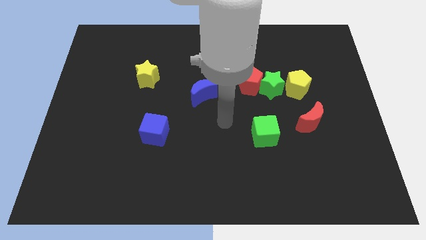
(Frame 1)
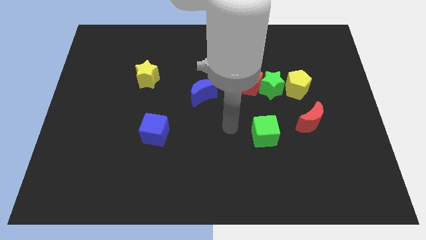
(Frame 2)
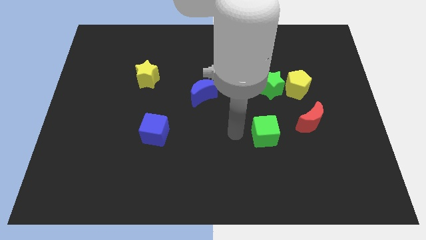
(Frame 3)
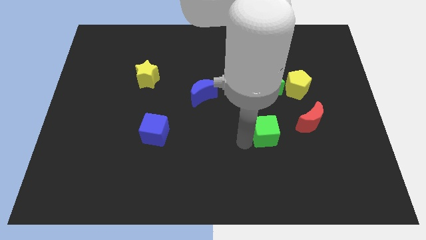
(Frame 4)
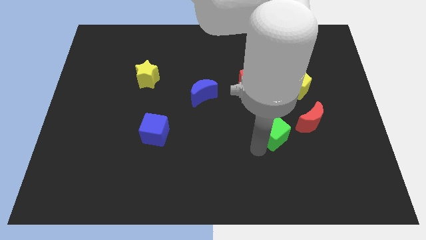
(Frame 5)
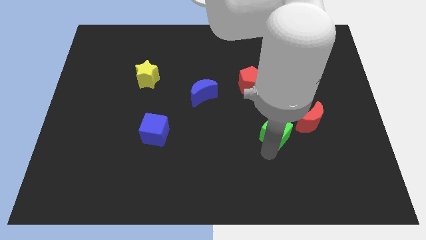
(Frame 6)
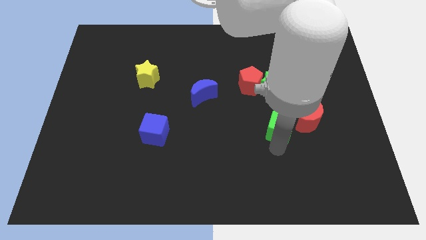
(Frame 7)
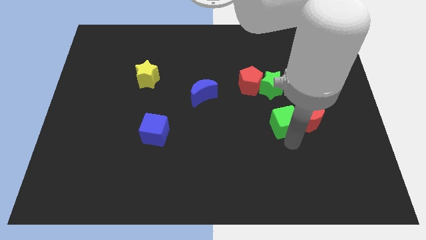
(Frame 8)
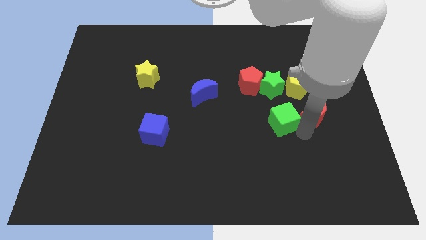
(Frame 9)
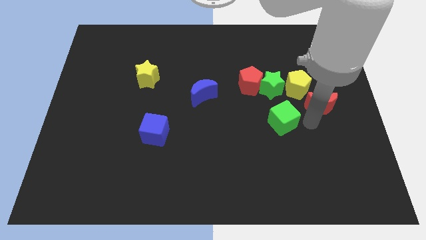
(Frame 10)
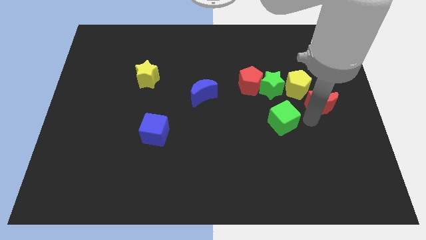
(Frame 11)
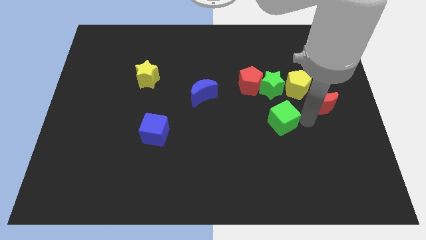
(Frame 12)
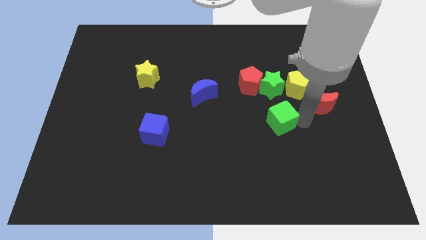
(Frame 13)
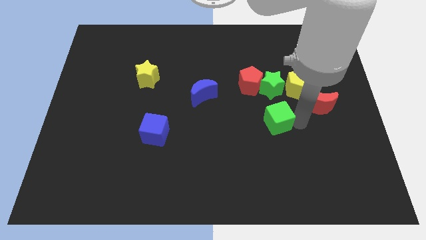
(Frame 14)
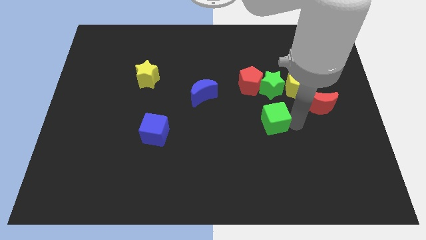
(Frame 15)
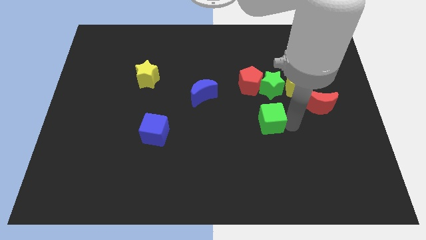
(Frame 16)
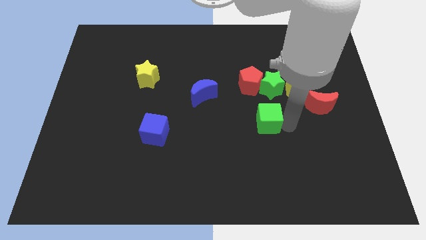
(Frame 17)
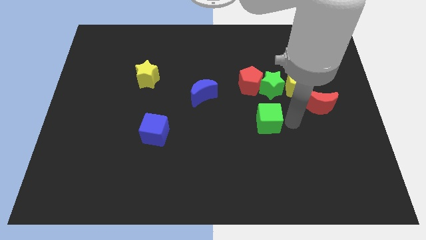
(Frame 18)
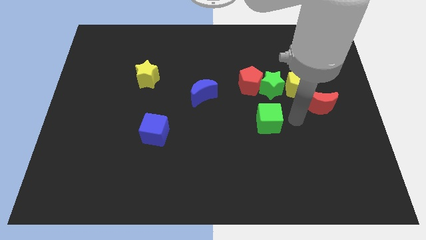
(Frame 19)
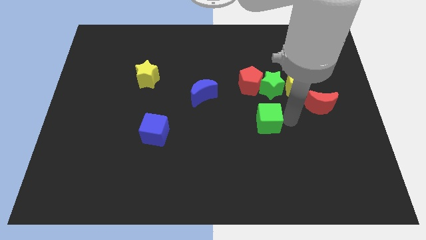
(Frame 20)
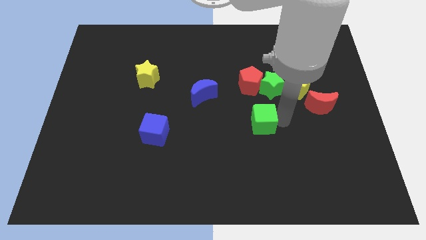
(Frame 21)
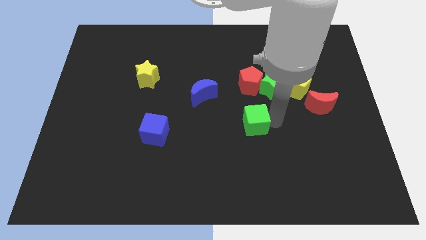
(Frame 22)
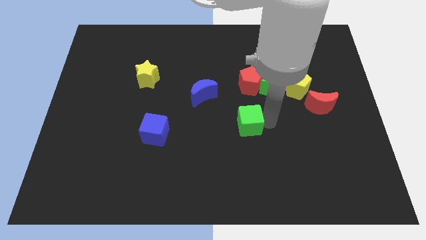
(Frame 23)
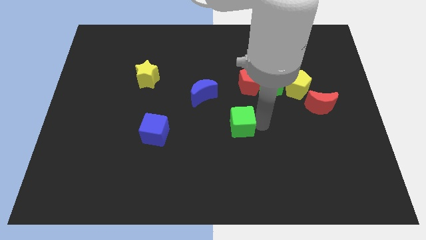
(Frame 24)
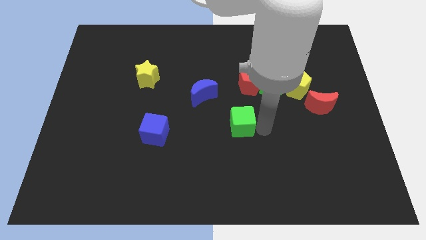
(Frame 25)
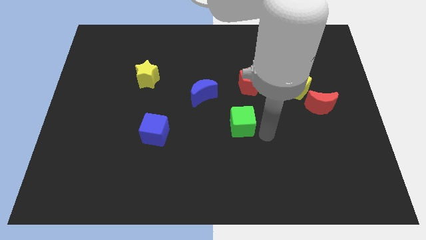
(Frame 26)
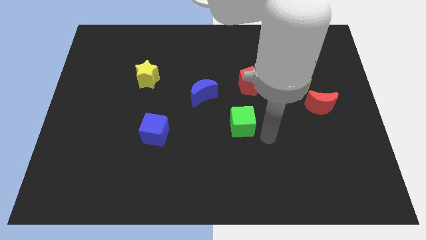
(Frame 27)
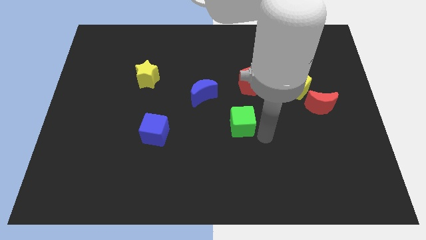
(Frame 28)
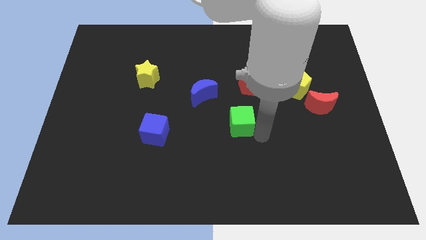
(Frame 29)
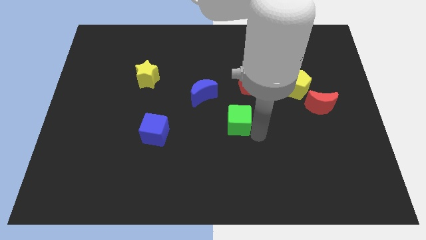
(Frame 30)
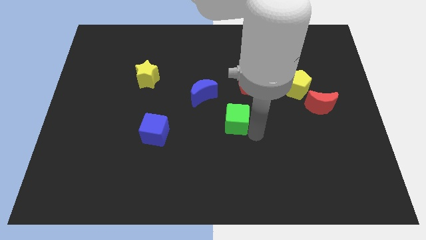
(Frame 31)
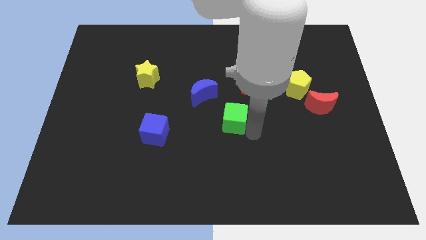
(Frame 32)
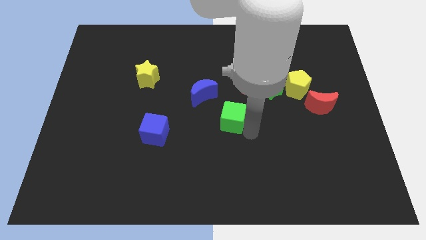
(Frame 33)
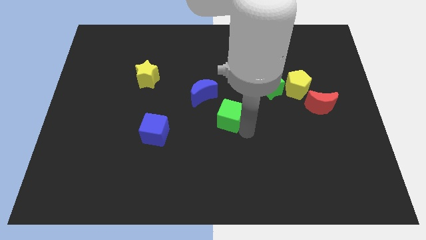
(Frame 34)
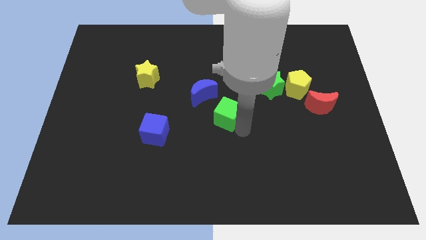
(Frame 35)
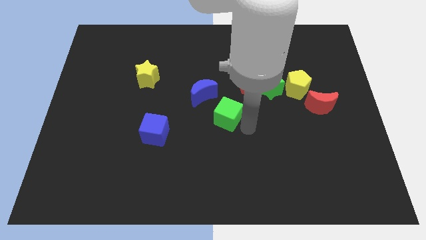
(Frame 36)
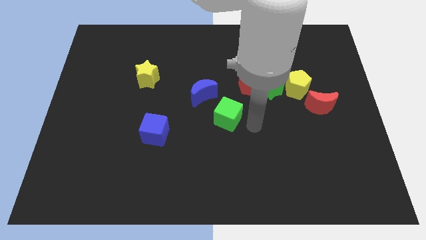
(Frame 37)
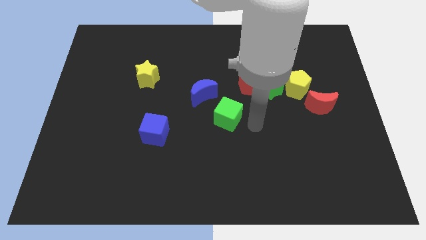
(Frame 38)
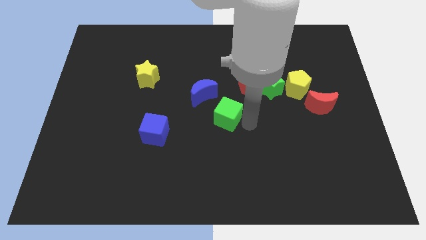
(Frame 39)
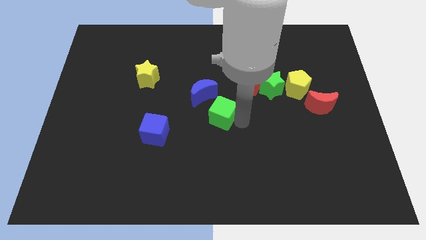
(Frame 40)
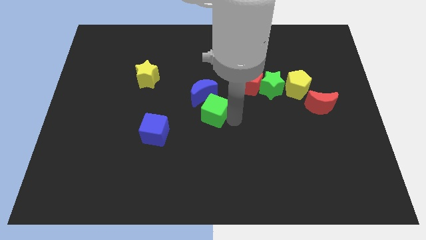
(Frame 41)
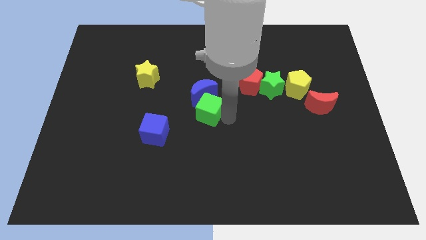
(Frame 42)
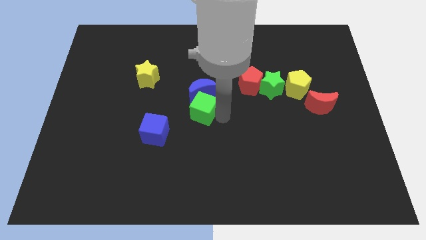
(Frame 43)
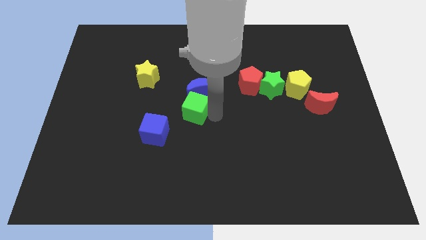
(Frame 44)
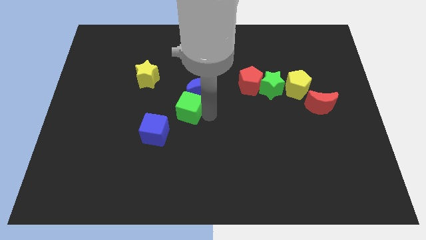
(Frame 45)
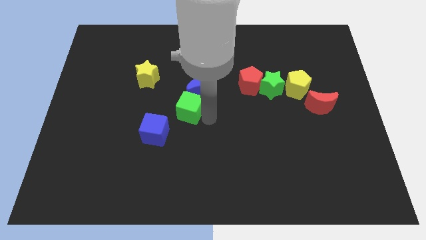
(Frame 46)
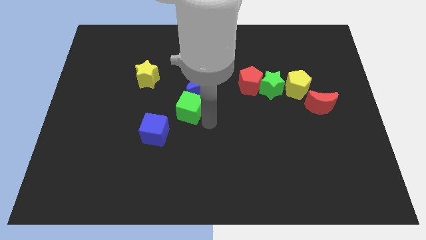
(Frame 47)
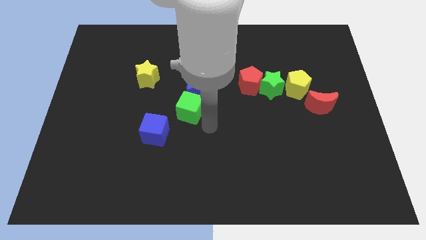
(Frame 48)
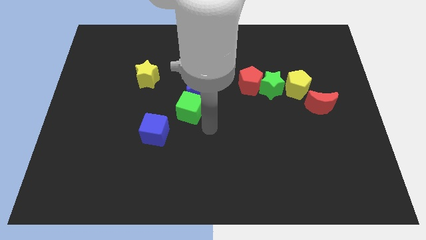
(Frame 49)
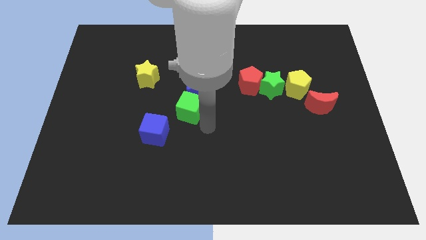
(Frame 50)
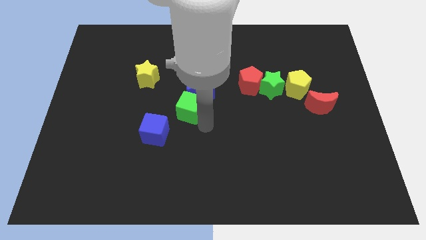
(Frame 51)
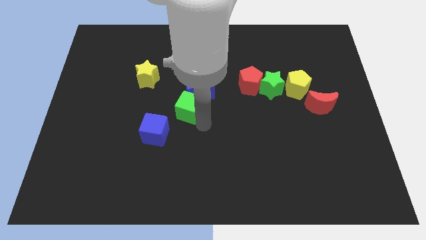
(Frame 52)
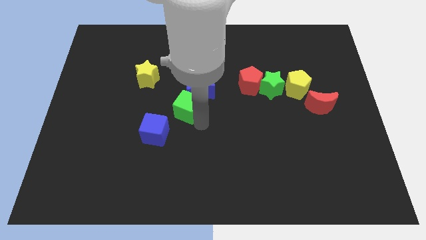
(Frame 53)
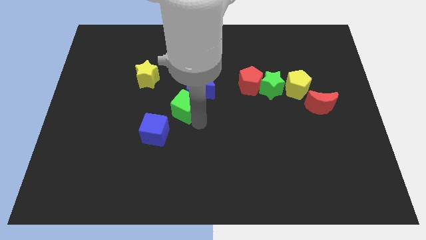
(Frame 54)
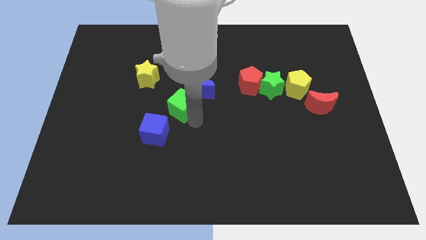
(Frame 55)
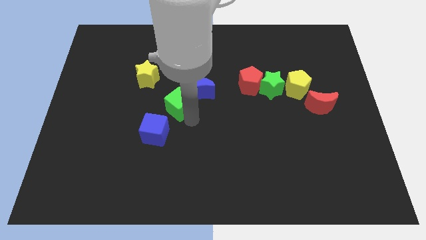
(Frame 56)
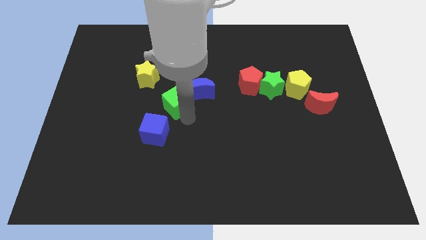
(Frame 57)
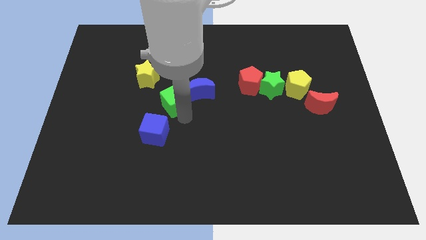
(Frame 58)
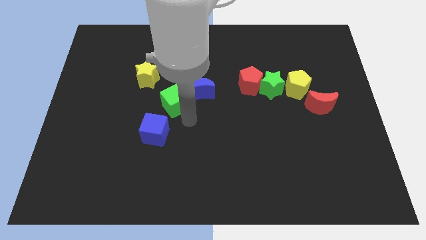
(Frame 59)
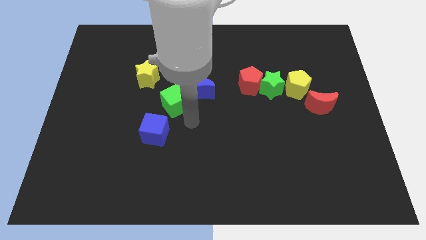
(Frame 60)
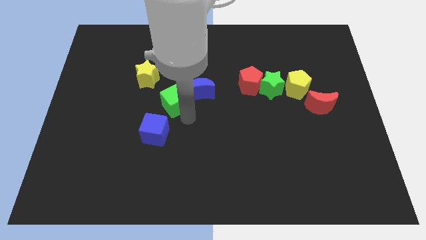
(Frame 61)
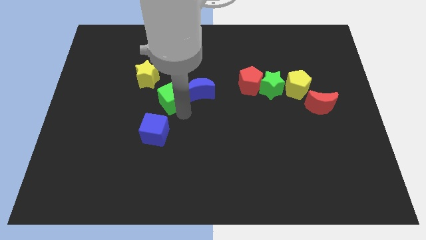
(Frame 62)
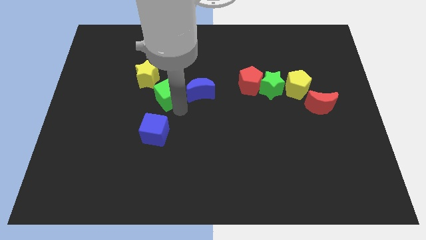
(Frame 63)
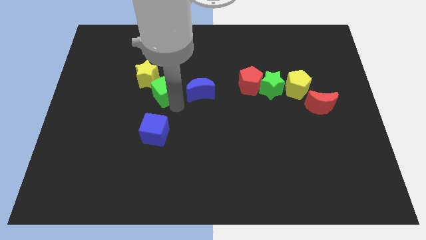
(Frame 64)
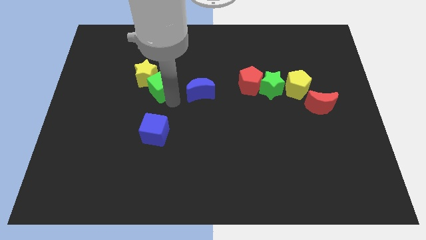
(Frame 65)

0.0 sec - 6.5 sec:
put the green cube towards the yellow star

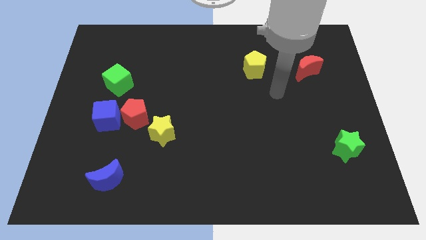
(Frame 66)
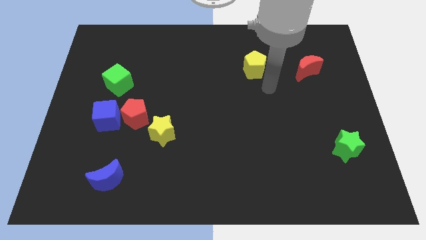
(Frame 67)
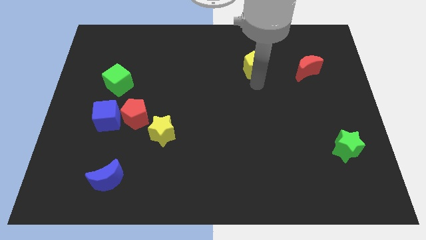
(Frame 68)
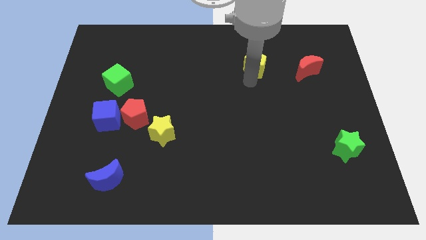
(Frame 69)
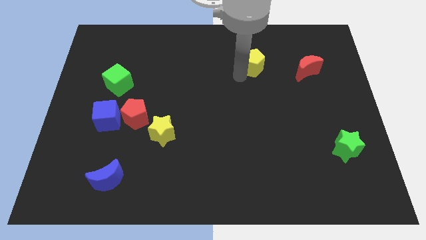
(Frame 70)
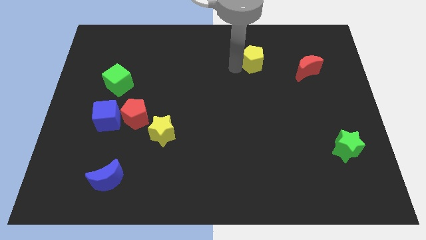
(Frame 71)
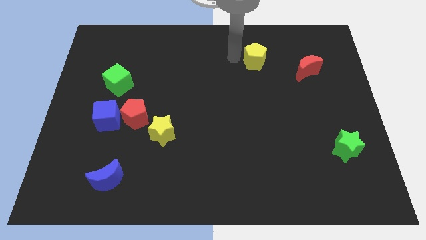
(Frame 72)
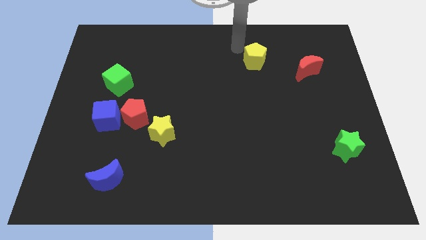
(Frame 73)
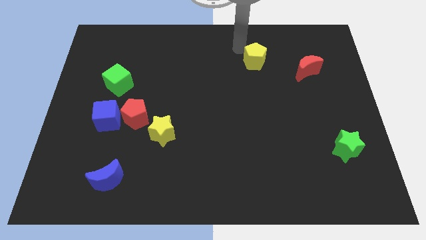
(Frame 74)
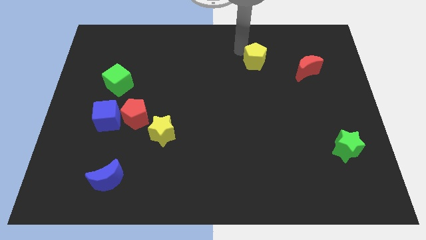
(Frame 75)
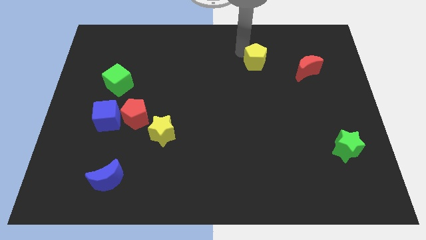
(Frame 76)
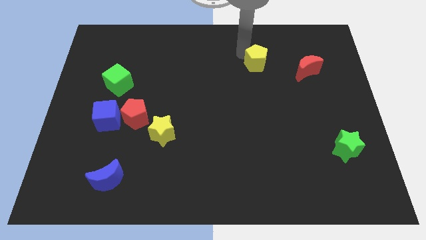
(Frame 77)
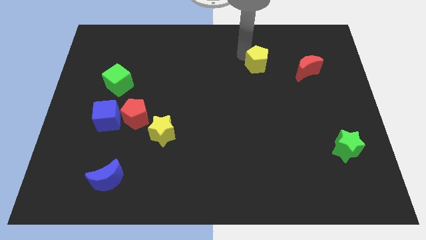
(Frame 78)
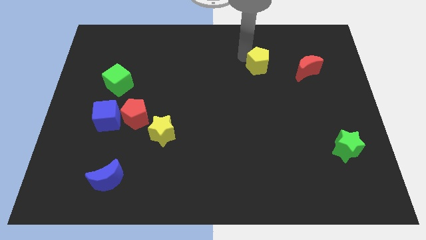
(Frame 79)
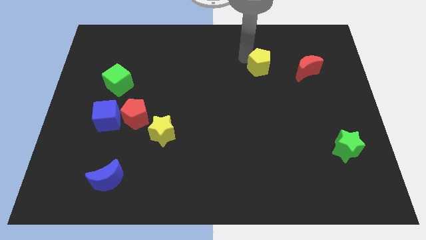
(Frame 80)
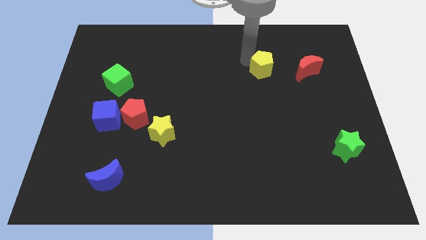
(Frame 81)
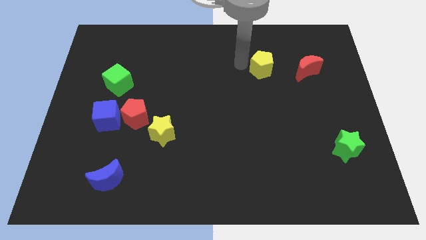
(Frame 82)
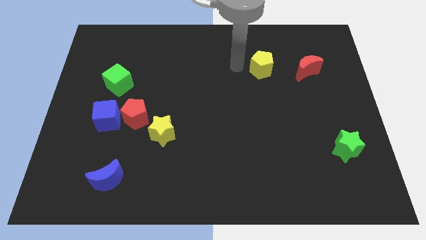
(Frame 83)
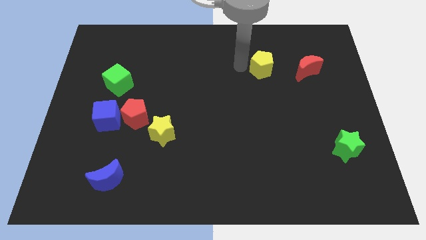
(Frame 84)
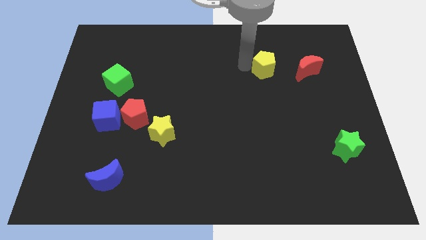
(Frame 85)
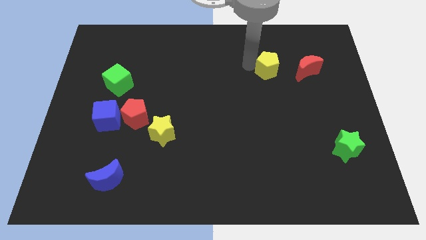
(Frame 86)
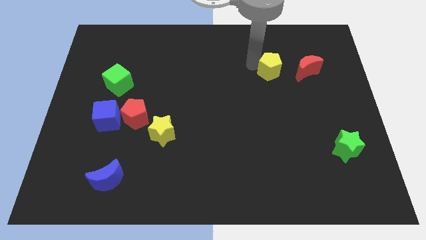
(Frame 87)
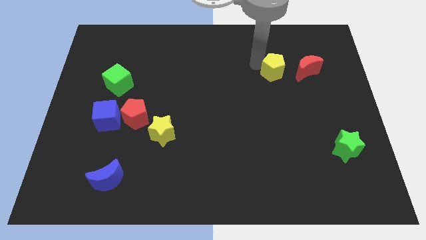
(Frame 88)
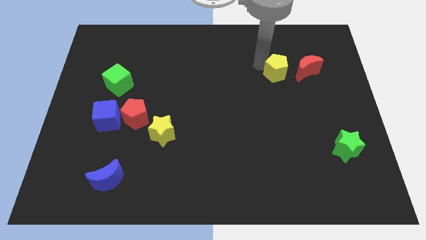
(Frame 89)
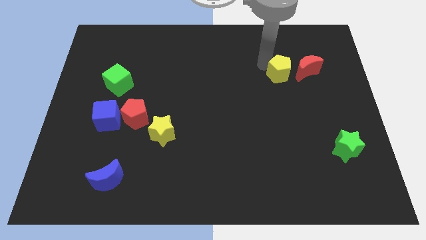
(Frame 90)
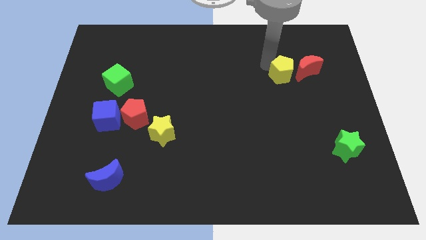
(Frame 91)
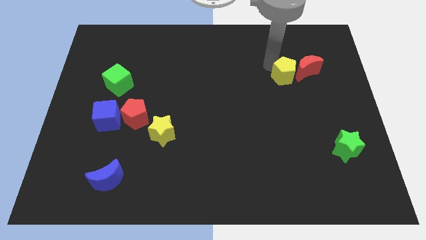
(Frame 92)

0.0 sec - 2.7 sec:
put the yellow pentagon to the red moon
